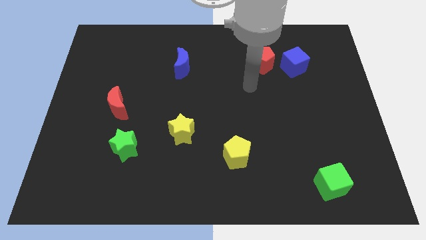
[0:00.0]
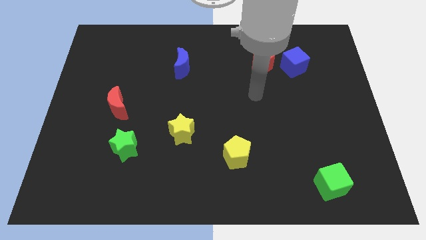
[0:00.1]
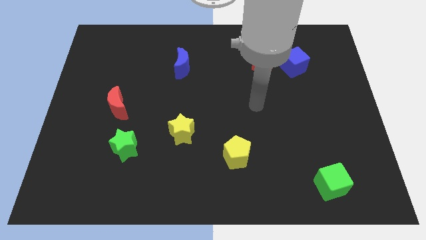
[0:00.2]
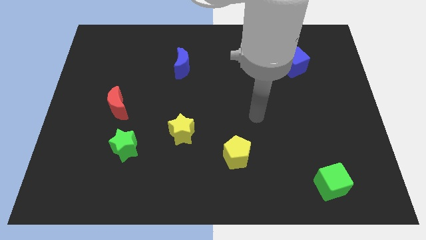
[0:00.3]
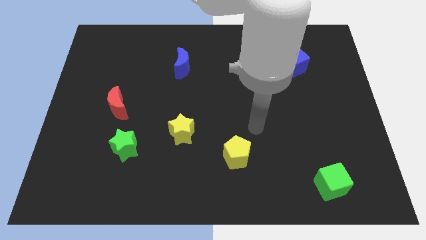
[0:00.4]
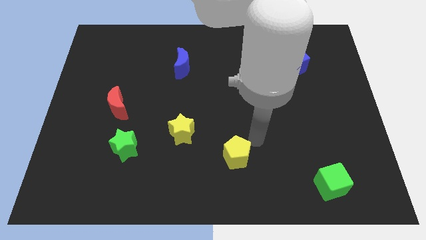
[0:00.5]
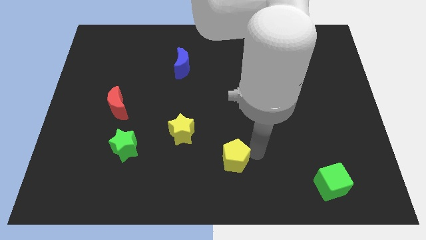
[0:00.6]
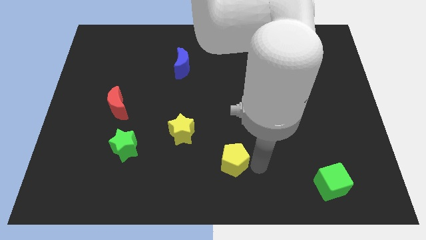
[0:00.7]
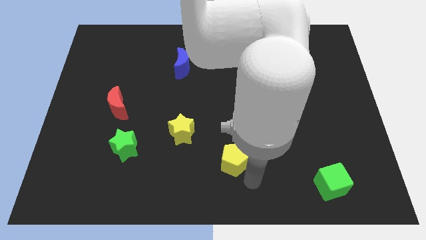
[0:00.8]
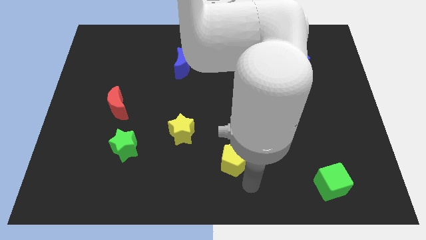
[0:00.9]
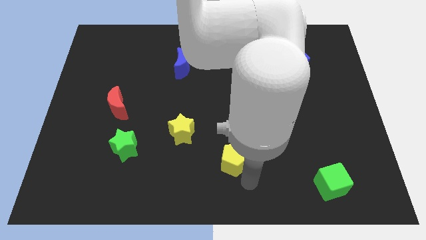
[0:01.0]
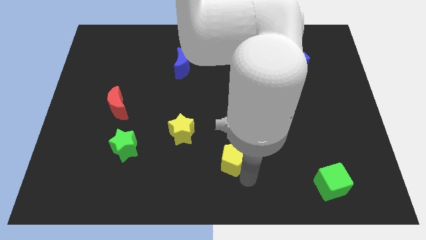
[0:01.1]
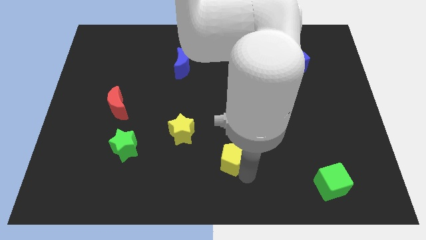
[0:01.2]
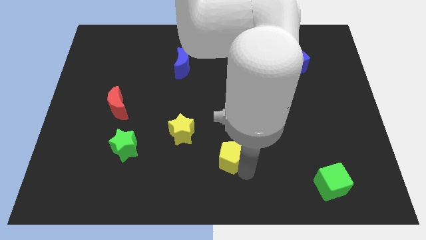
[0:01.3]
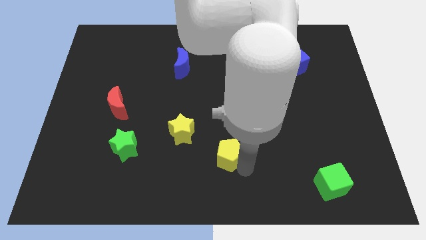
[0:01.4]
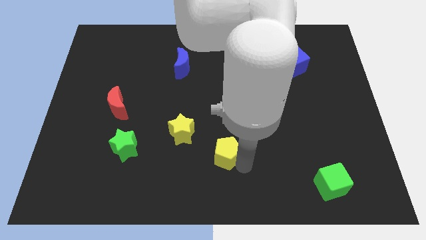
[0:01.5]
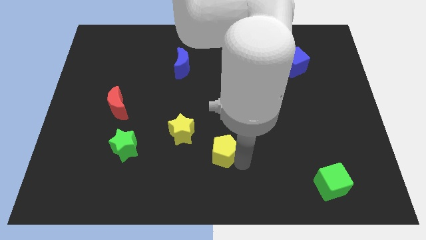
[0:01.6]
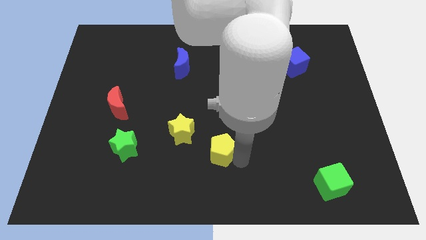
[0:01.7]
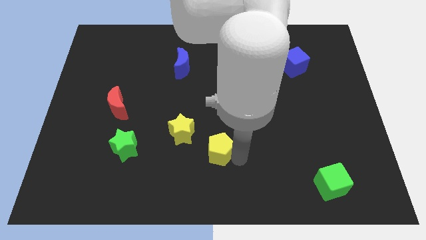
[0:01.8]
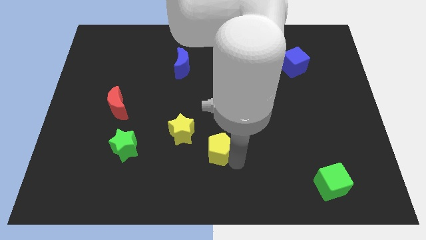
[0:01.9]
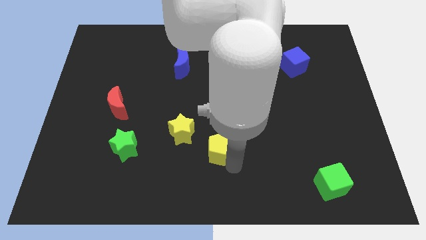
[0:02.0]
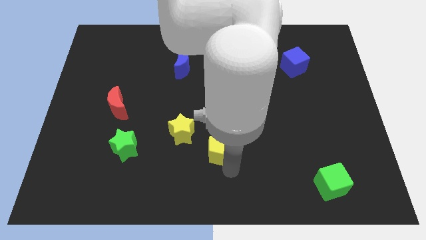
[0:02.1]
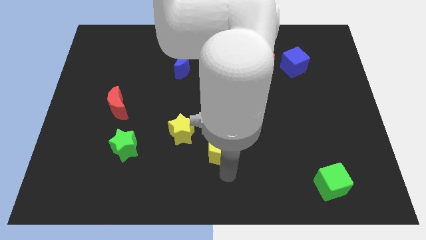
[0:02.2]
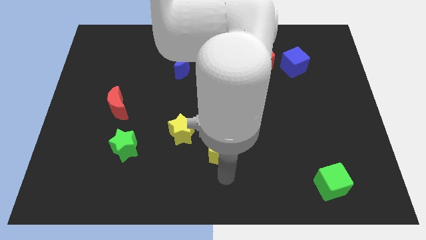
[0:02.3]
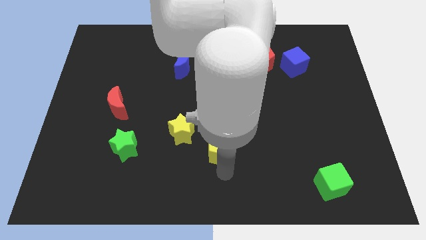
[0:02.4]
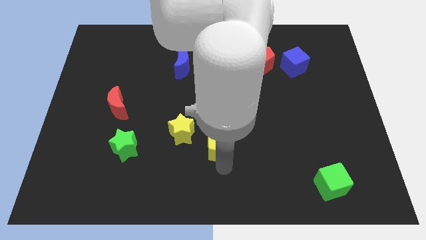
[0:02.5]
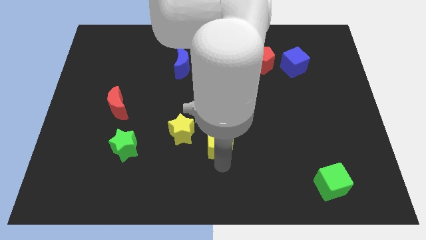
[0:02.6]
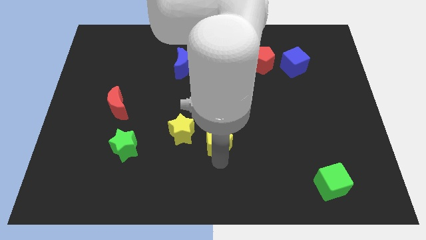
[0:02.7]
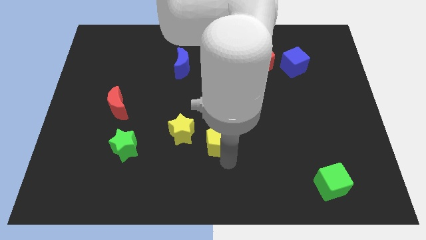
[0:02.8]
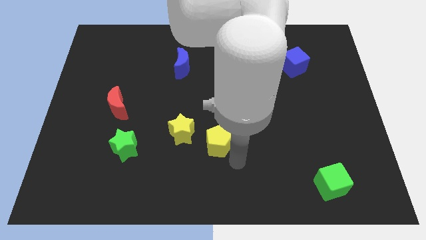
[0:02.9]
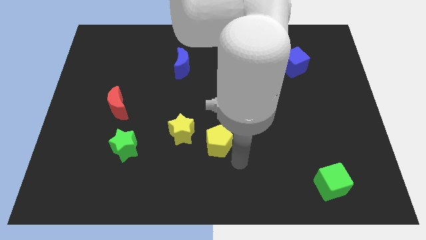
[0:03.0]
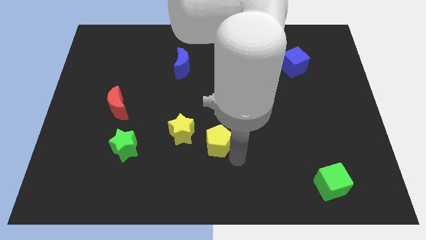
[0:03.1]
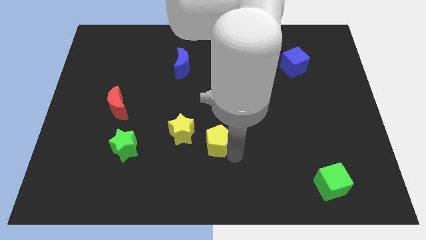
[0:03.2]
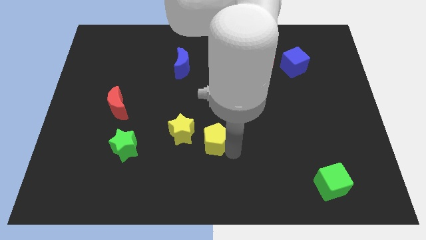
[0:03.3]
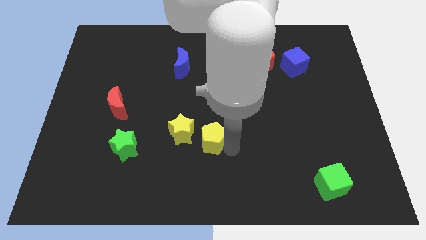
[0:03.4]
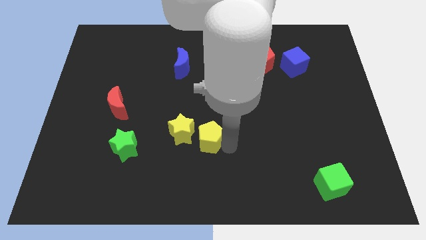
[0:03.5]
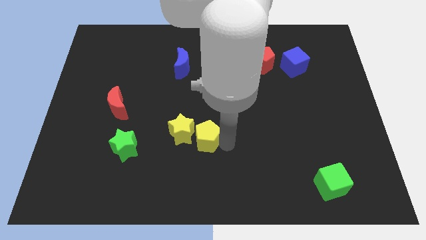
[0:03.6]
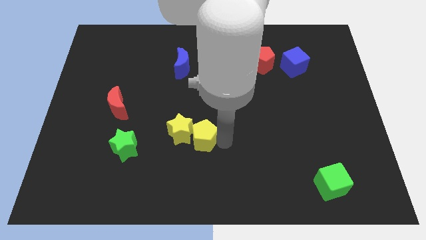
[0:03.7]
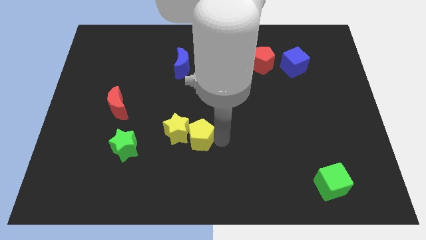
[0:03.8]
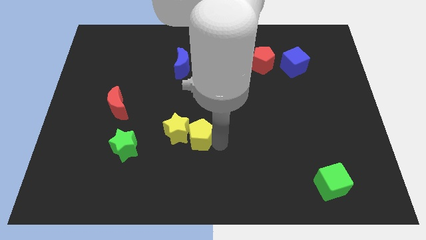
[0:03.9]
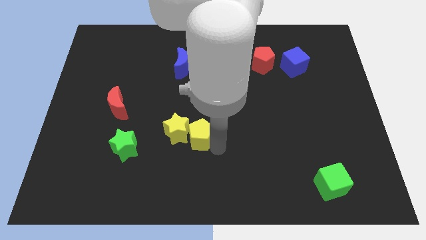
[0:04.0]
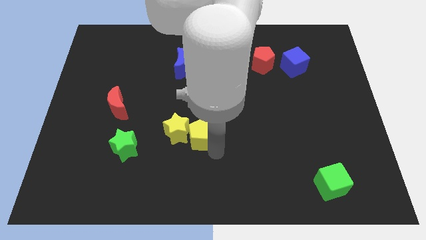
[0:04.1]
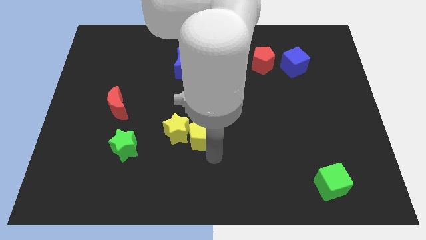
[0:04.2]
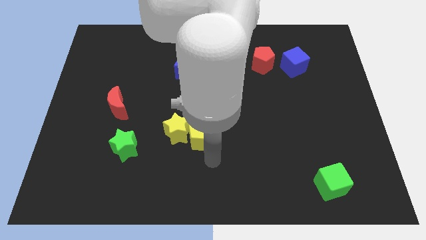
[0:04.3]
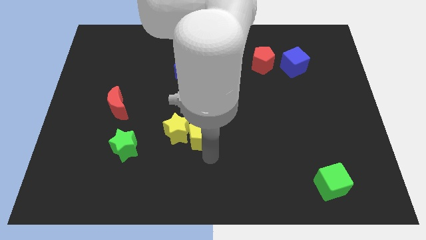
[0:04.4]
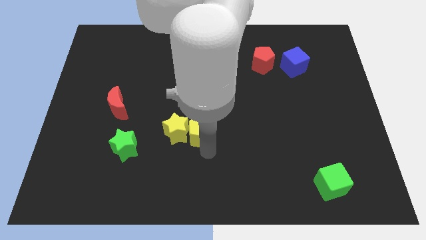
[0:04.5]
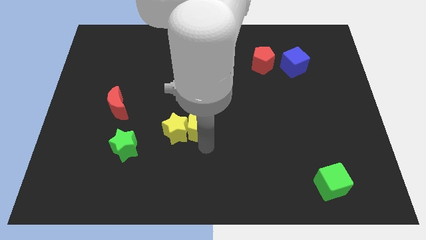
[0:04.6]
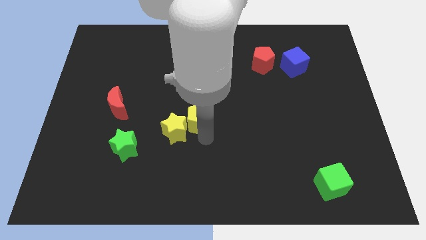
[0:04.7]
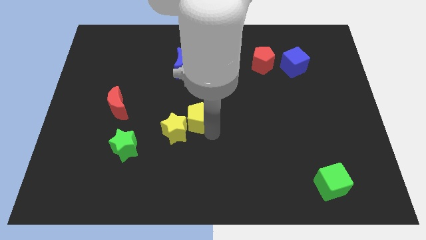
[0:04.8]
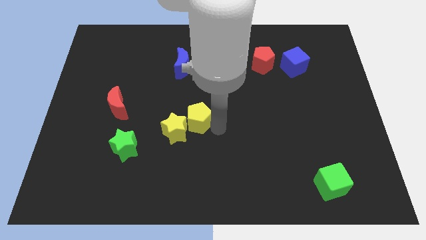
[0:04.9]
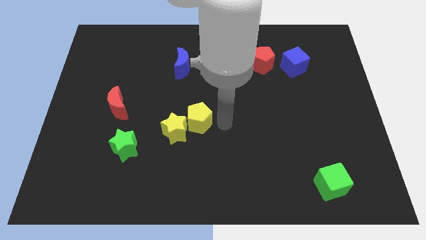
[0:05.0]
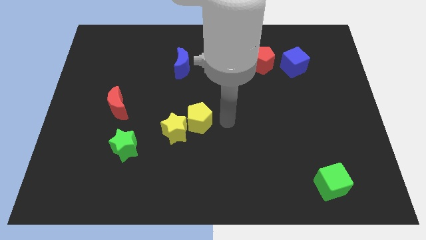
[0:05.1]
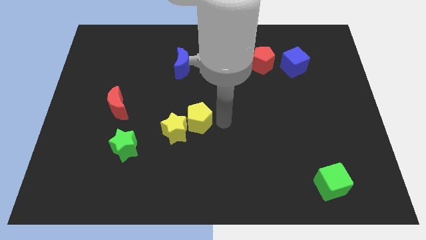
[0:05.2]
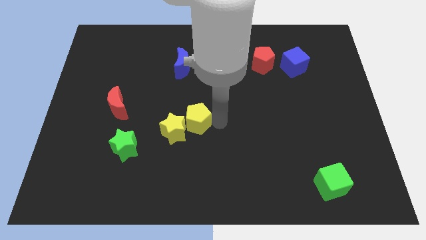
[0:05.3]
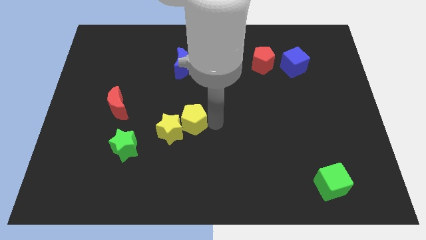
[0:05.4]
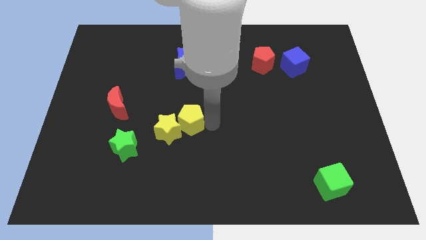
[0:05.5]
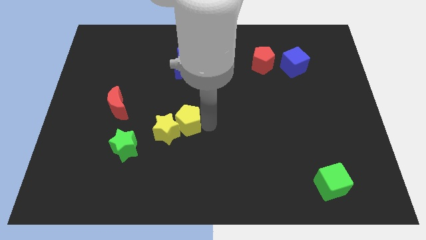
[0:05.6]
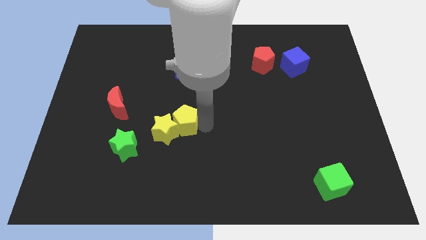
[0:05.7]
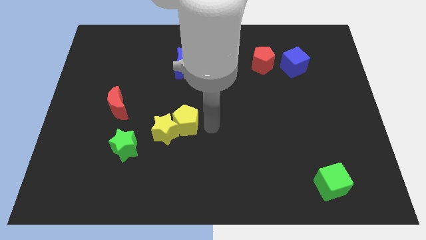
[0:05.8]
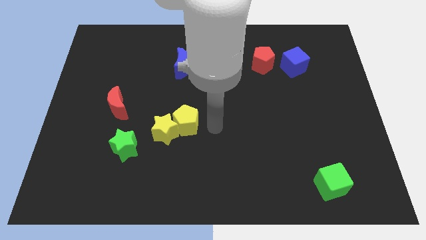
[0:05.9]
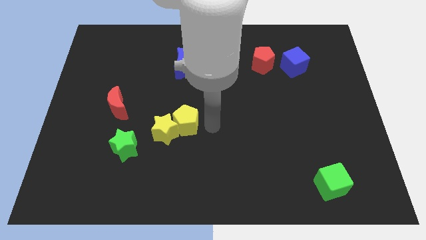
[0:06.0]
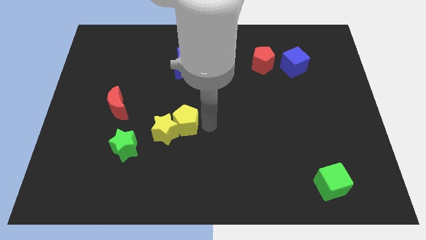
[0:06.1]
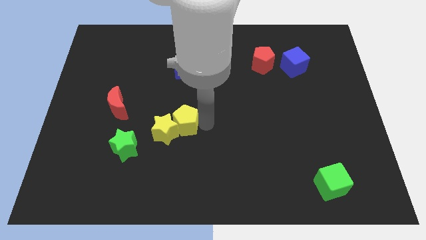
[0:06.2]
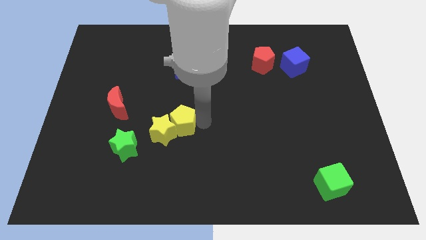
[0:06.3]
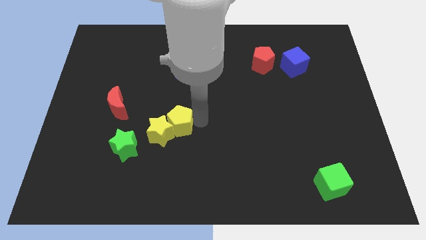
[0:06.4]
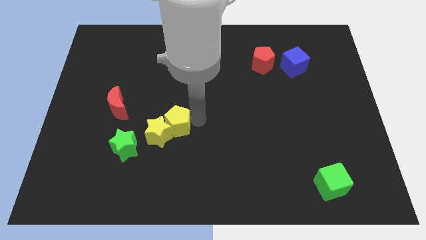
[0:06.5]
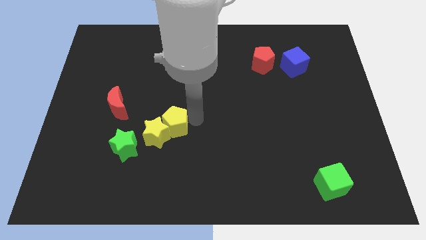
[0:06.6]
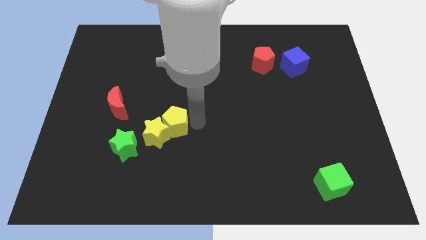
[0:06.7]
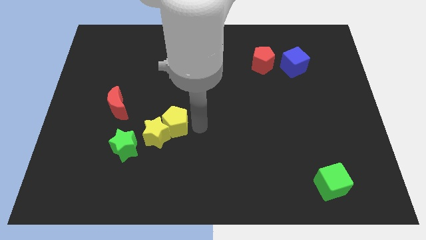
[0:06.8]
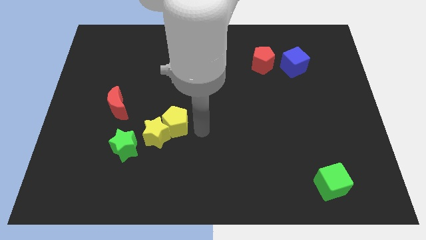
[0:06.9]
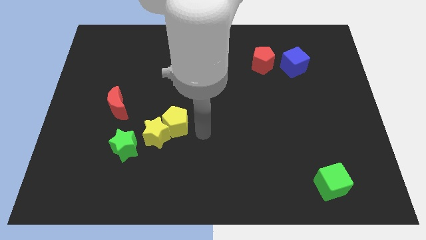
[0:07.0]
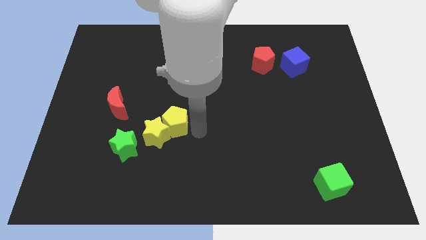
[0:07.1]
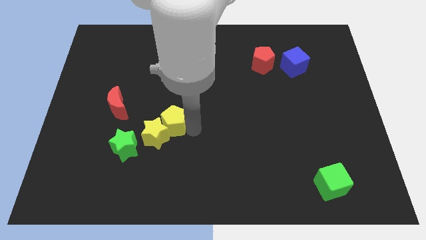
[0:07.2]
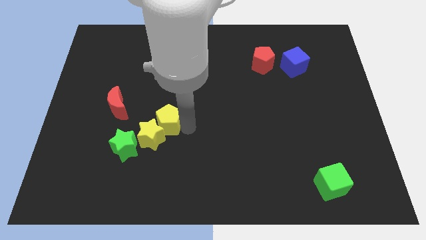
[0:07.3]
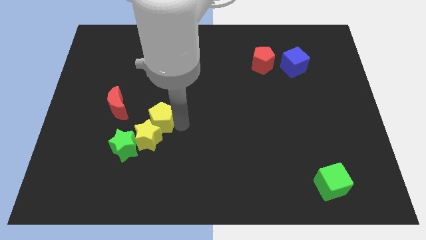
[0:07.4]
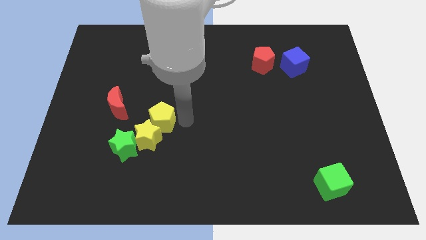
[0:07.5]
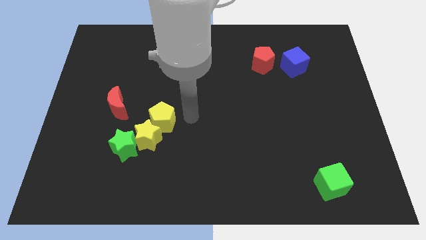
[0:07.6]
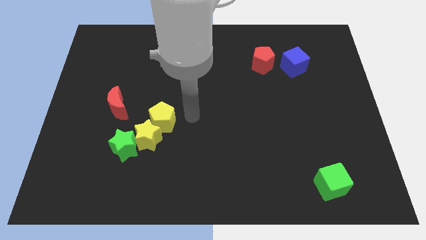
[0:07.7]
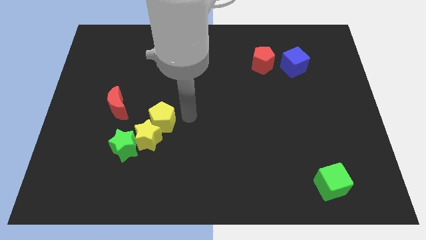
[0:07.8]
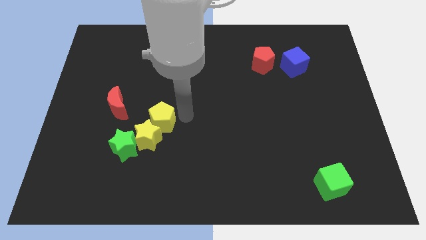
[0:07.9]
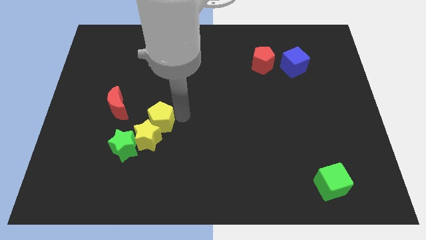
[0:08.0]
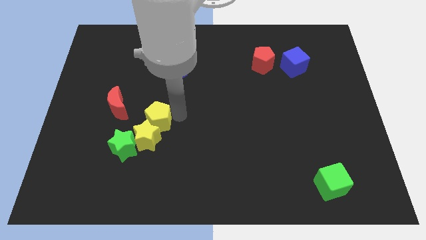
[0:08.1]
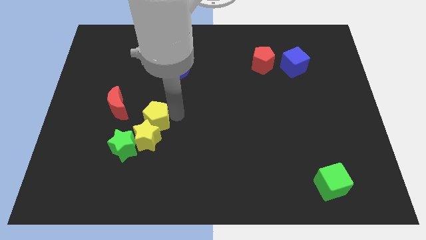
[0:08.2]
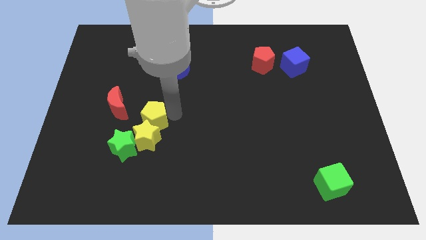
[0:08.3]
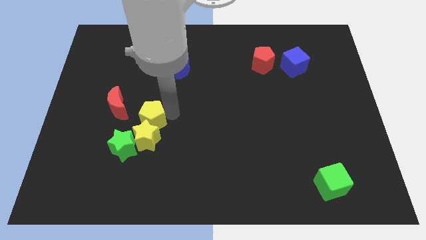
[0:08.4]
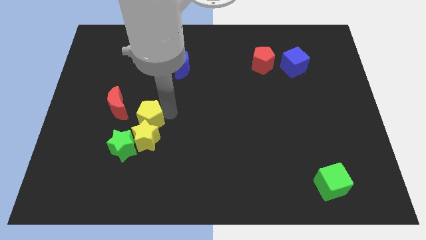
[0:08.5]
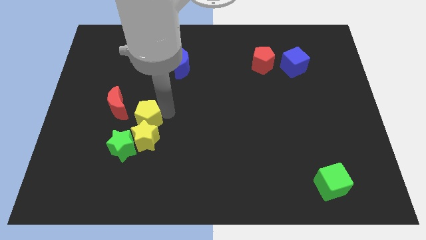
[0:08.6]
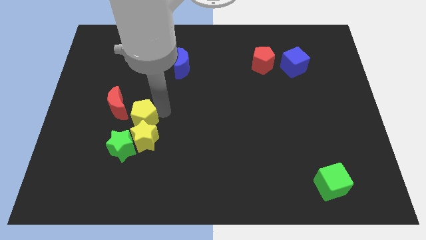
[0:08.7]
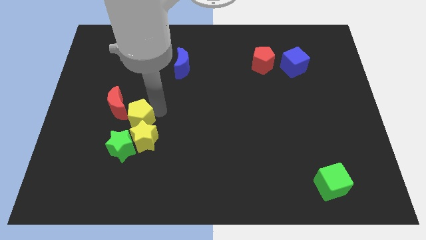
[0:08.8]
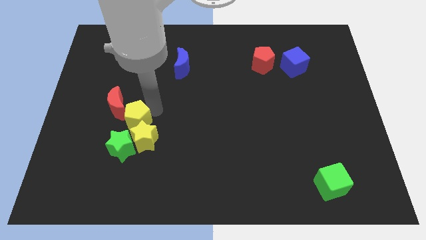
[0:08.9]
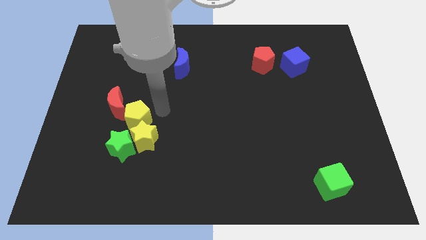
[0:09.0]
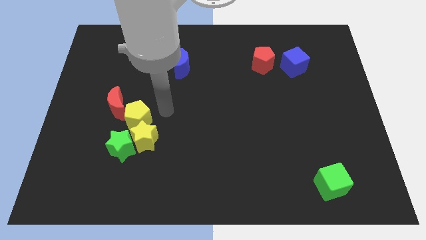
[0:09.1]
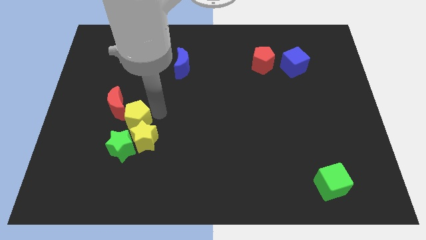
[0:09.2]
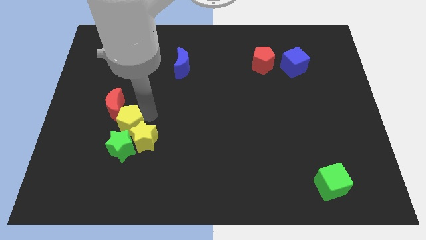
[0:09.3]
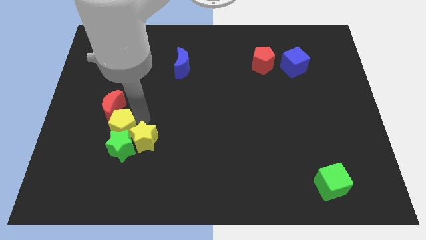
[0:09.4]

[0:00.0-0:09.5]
put the yellow pentagon diagonally up and to the left of the green star
